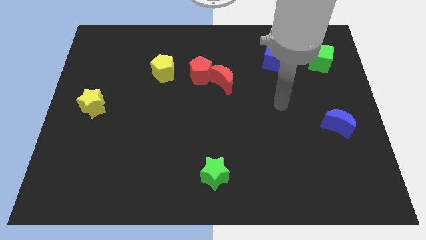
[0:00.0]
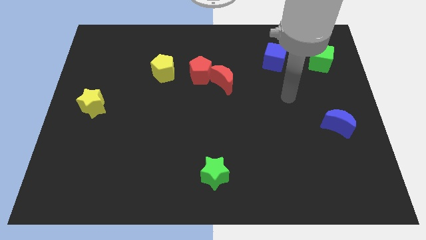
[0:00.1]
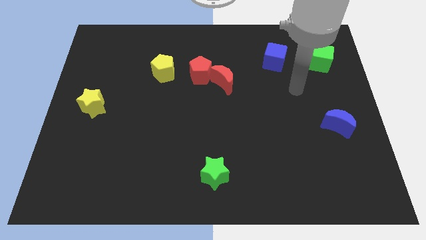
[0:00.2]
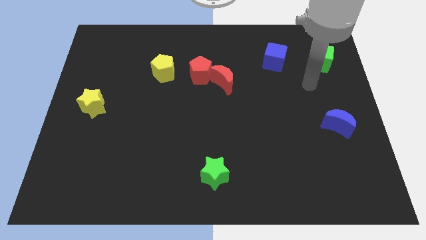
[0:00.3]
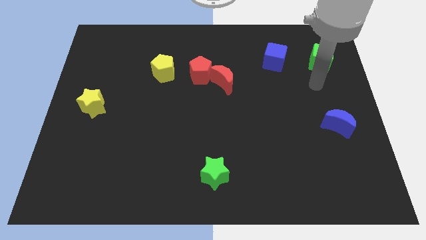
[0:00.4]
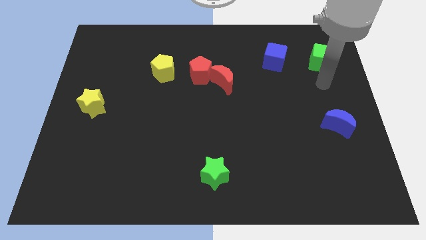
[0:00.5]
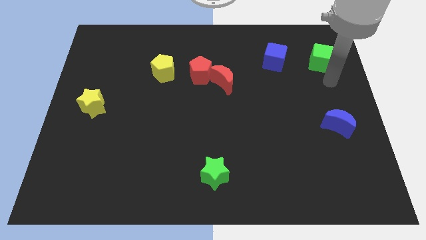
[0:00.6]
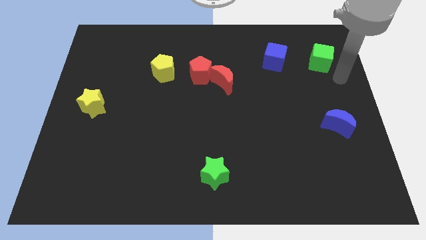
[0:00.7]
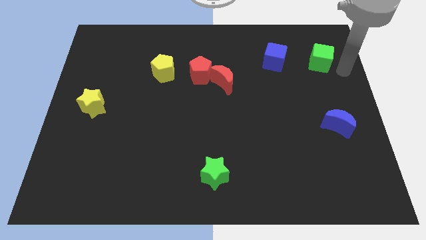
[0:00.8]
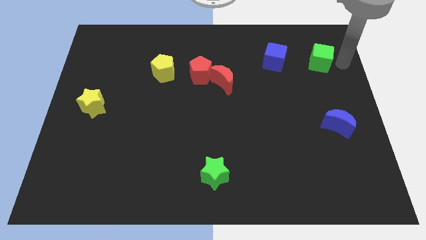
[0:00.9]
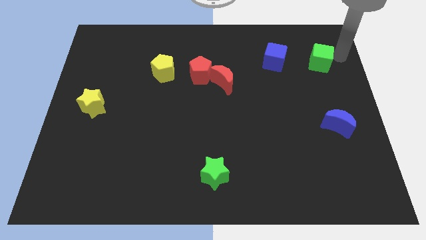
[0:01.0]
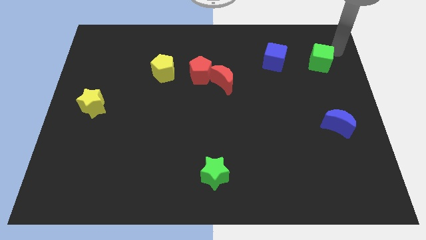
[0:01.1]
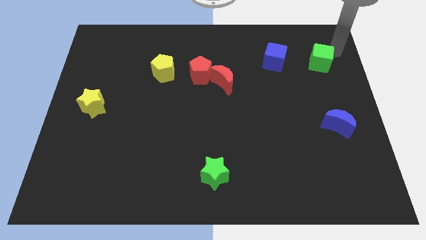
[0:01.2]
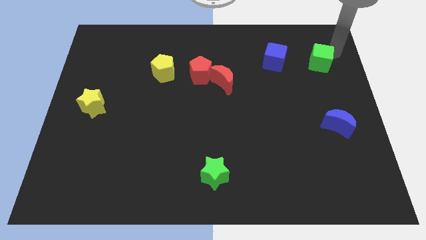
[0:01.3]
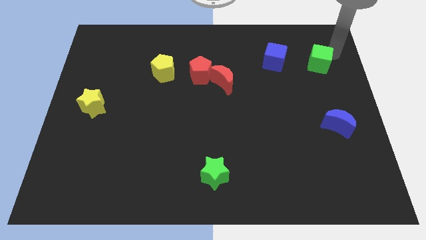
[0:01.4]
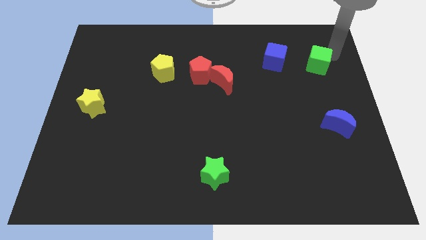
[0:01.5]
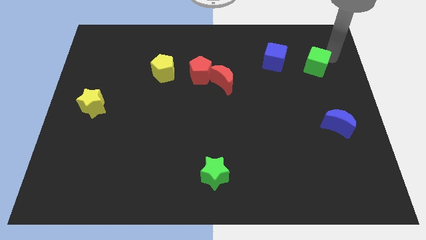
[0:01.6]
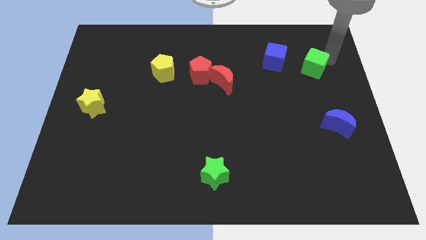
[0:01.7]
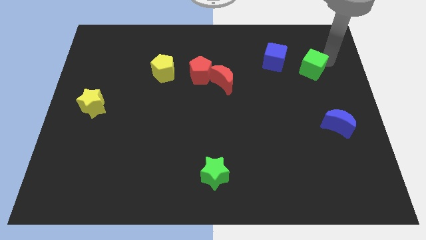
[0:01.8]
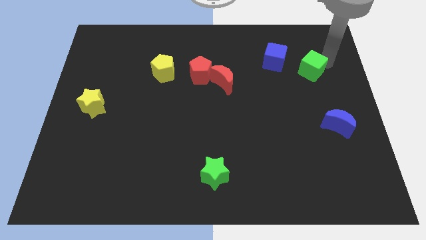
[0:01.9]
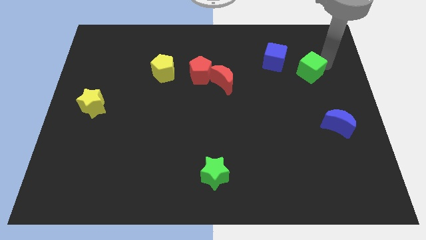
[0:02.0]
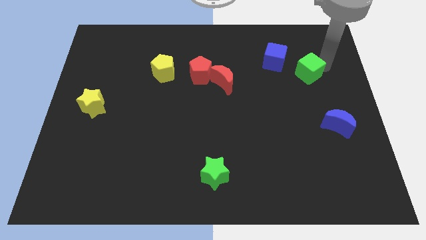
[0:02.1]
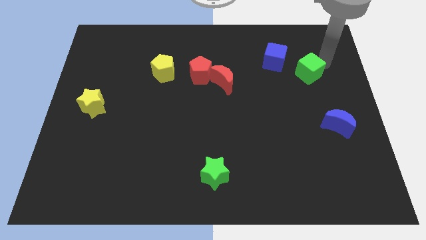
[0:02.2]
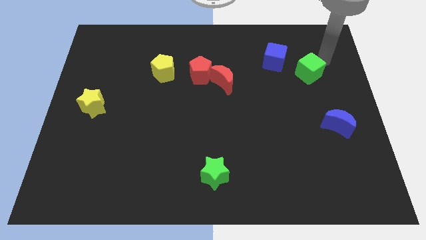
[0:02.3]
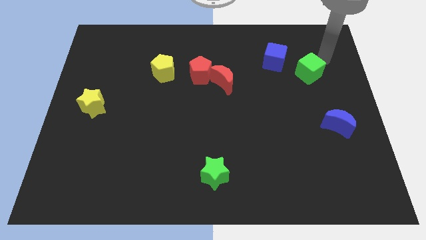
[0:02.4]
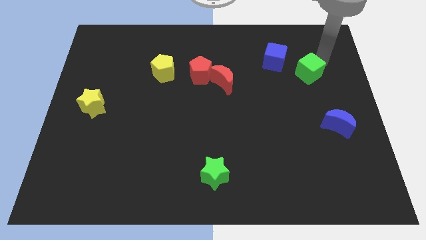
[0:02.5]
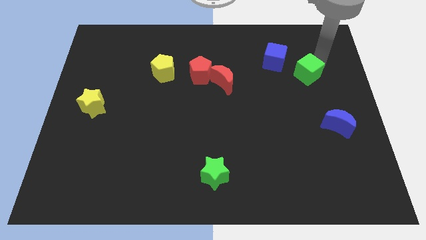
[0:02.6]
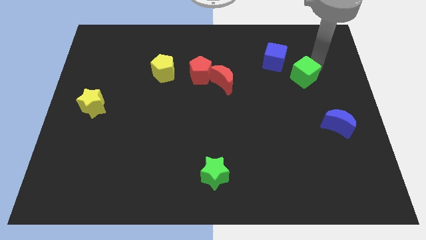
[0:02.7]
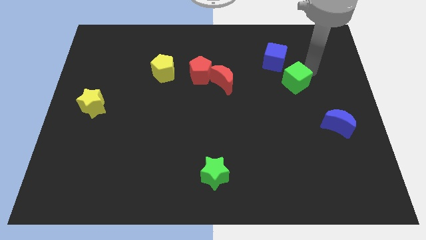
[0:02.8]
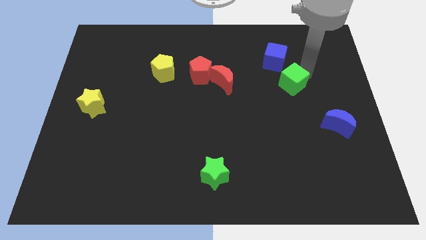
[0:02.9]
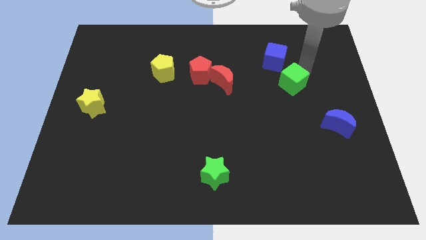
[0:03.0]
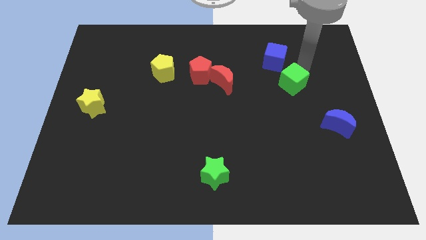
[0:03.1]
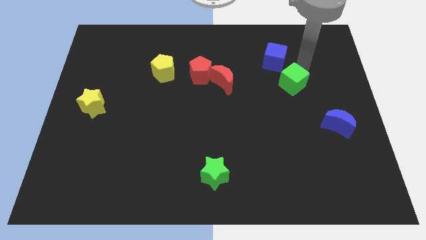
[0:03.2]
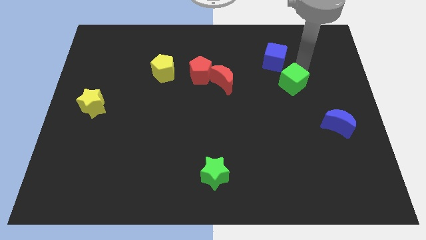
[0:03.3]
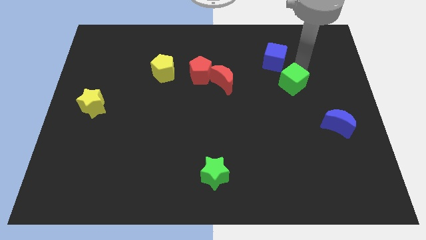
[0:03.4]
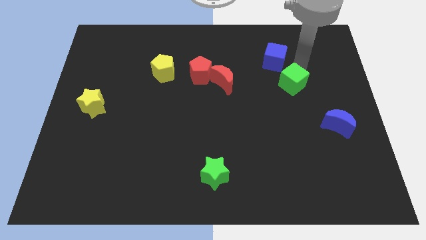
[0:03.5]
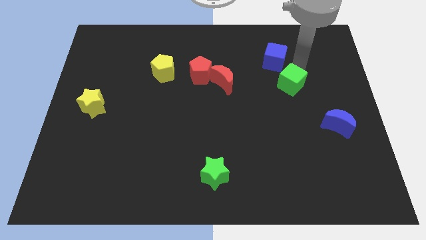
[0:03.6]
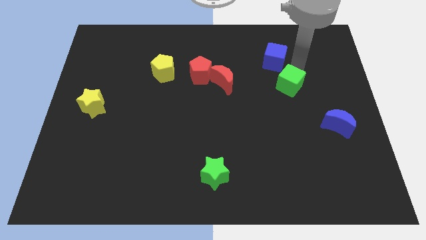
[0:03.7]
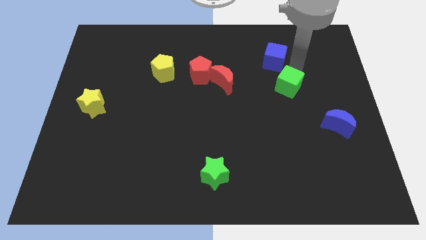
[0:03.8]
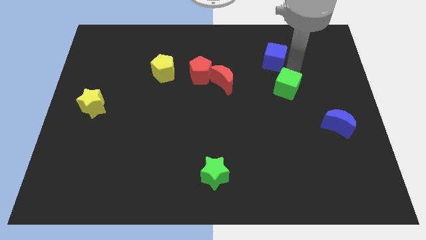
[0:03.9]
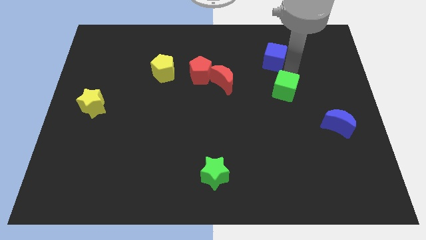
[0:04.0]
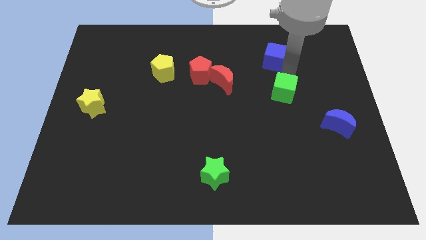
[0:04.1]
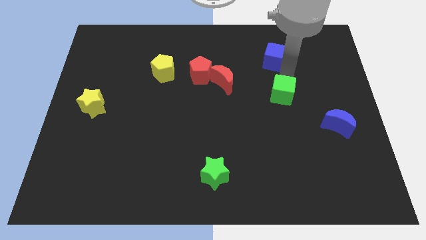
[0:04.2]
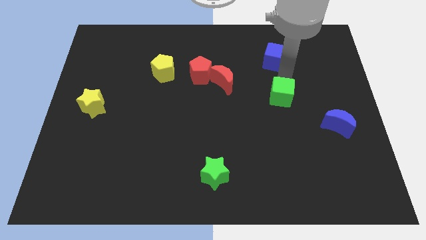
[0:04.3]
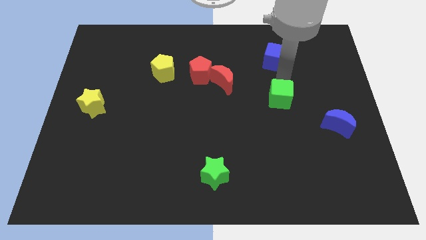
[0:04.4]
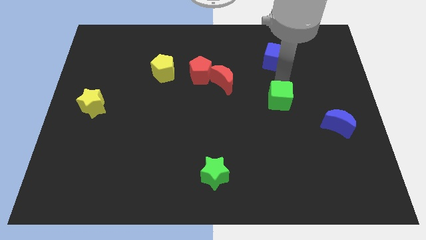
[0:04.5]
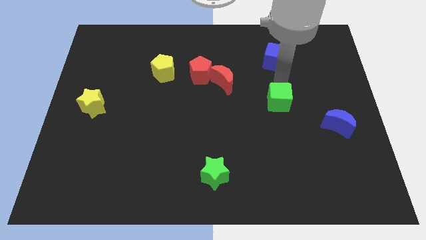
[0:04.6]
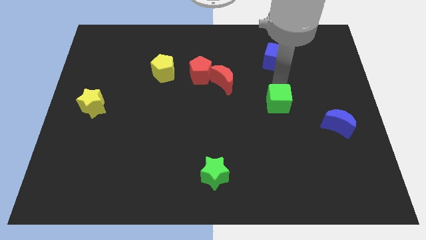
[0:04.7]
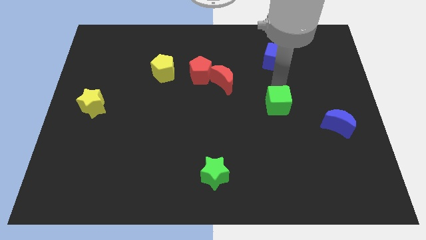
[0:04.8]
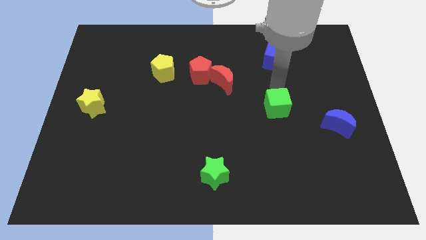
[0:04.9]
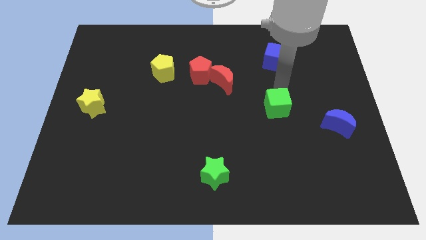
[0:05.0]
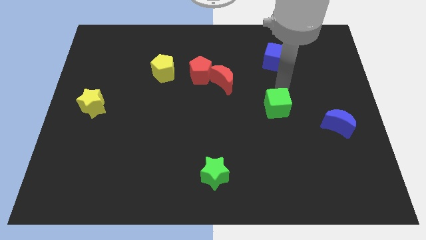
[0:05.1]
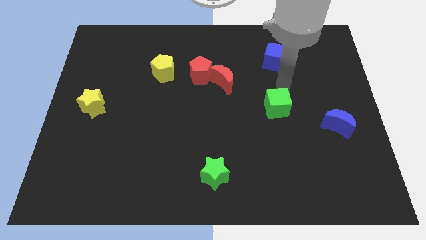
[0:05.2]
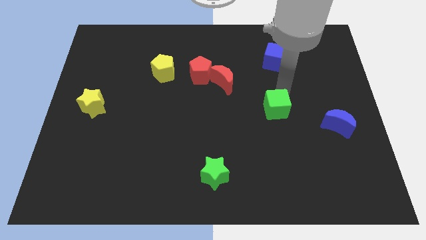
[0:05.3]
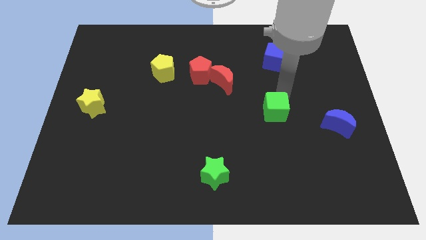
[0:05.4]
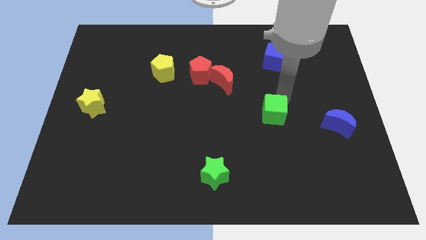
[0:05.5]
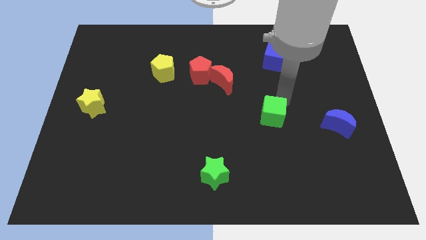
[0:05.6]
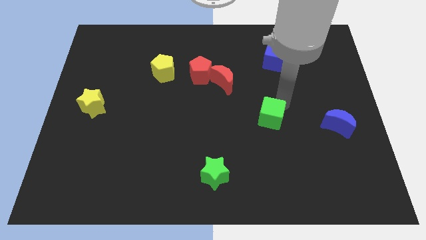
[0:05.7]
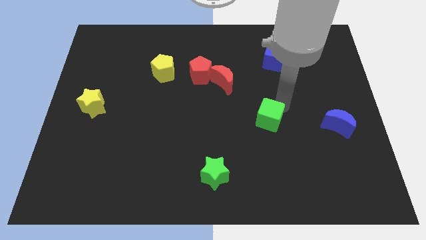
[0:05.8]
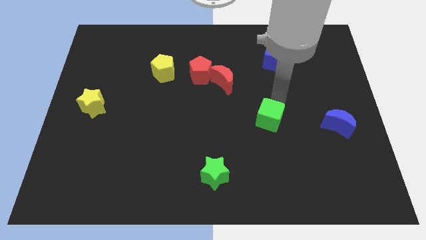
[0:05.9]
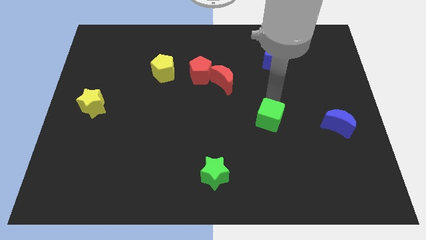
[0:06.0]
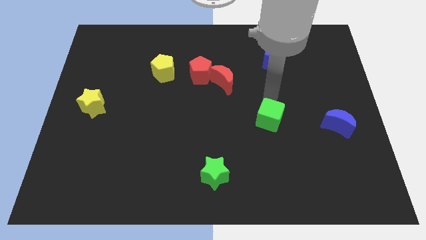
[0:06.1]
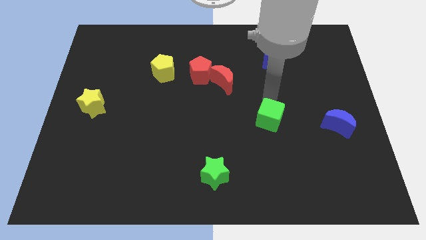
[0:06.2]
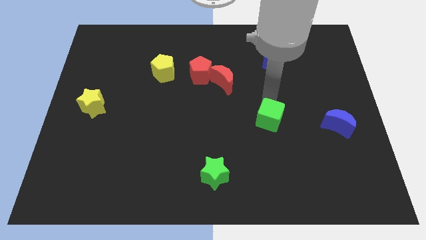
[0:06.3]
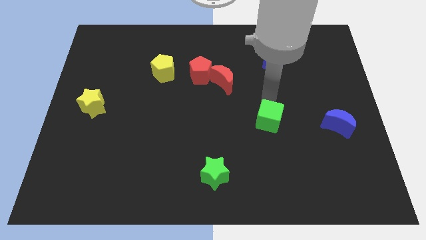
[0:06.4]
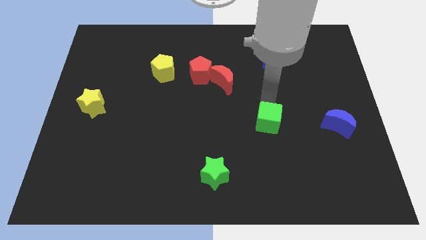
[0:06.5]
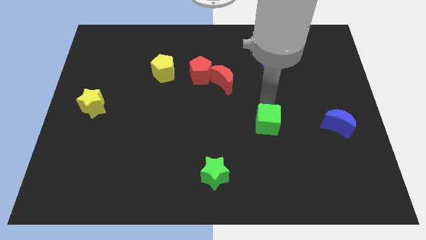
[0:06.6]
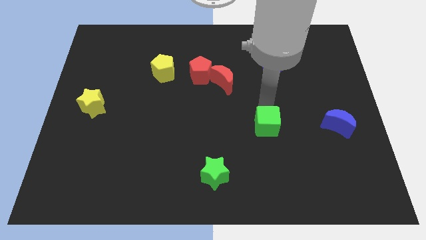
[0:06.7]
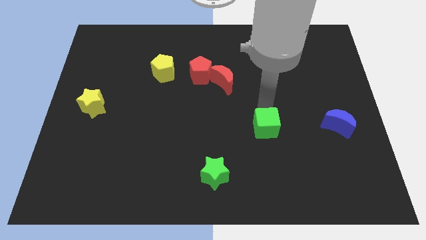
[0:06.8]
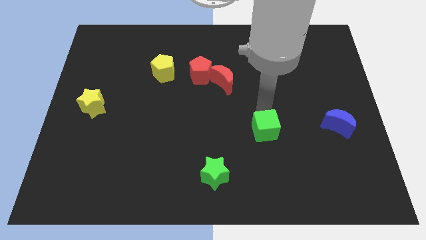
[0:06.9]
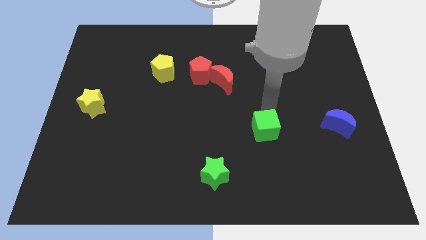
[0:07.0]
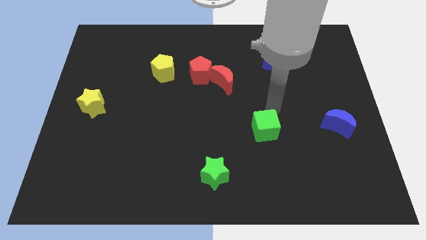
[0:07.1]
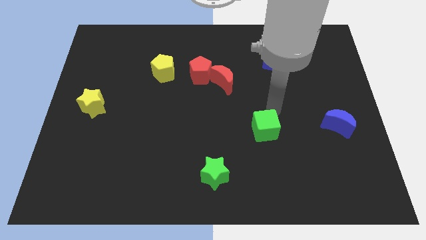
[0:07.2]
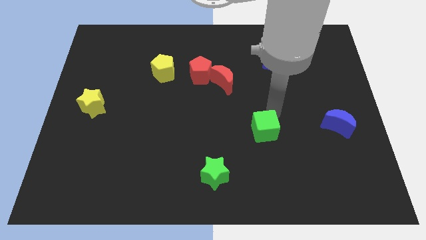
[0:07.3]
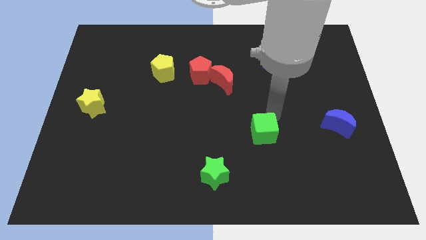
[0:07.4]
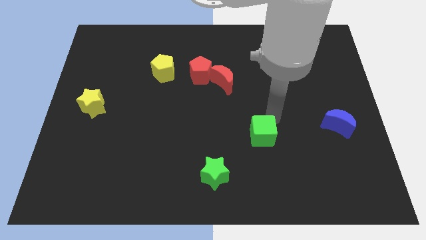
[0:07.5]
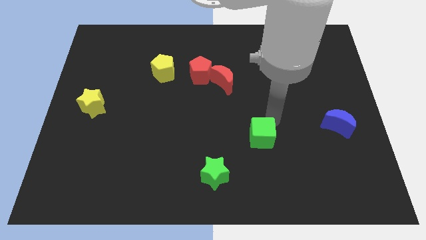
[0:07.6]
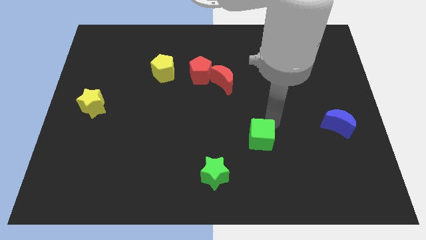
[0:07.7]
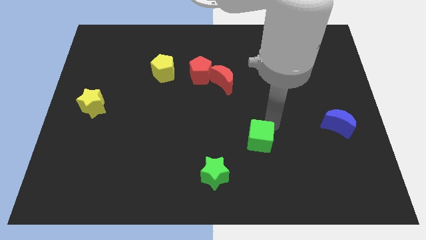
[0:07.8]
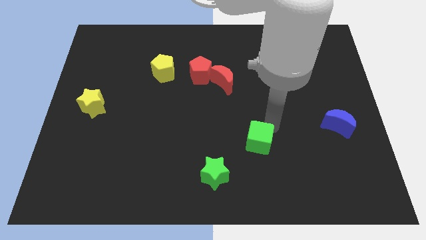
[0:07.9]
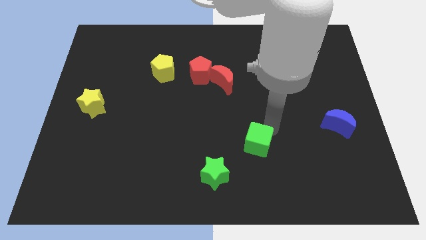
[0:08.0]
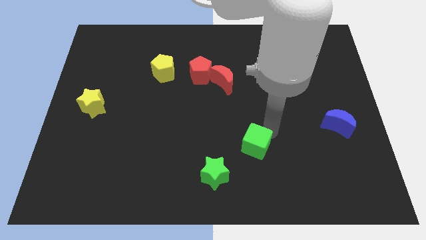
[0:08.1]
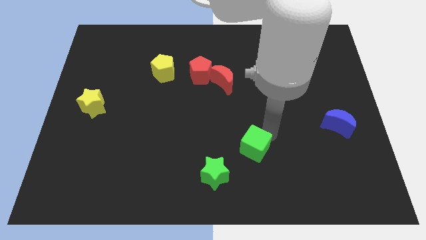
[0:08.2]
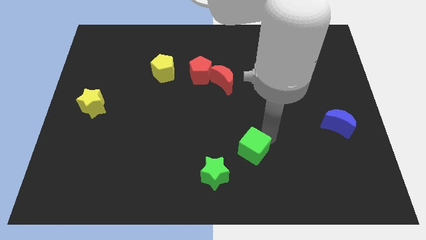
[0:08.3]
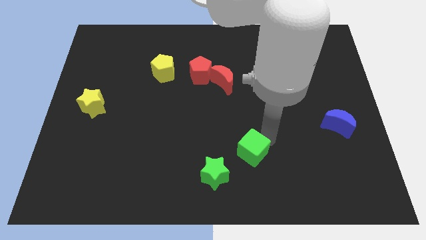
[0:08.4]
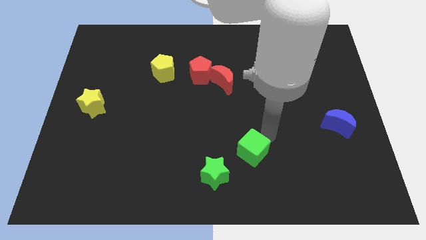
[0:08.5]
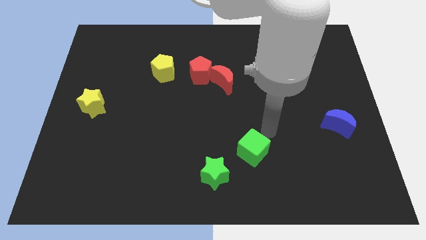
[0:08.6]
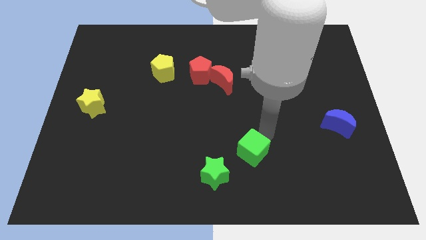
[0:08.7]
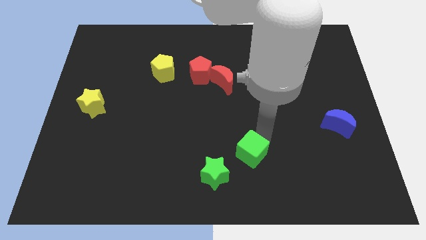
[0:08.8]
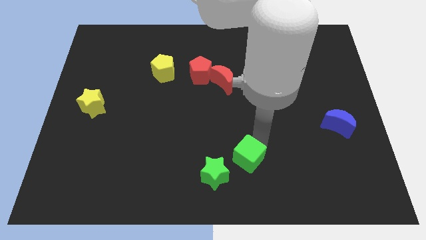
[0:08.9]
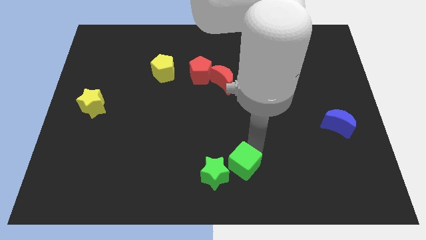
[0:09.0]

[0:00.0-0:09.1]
move the green cube to the bottom side
